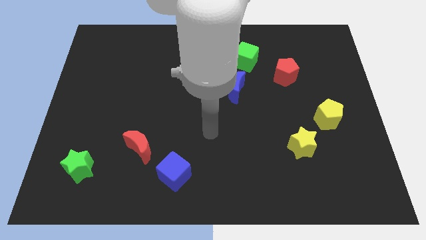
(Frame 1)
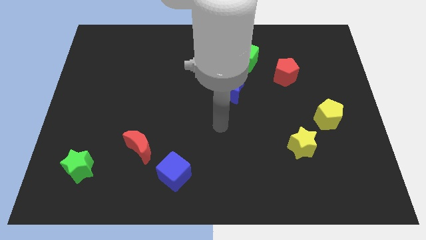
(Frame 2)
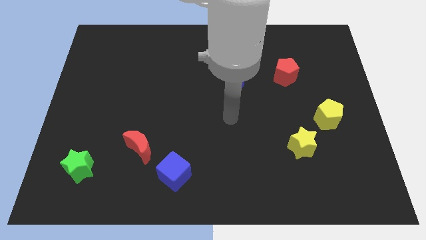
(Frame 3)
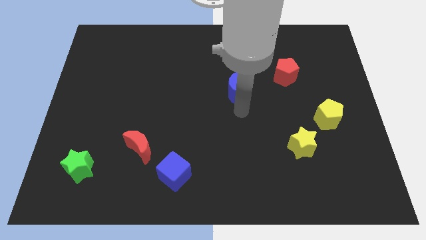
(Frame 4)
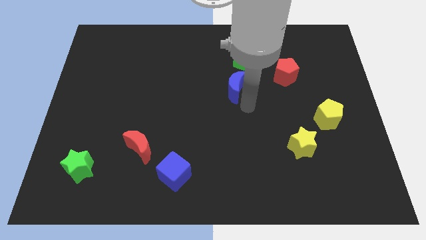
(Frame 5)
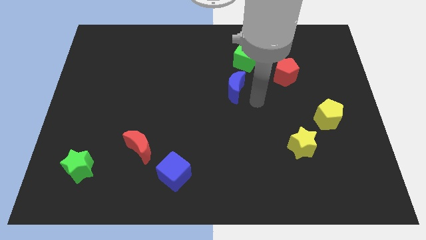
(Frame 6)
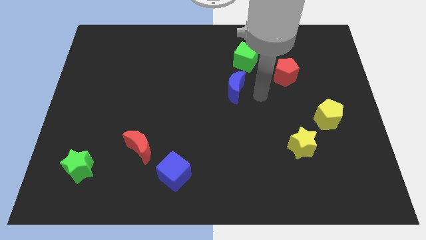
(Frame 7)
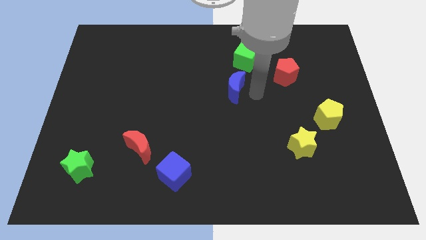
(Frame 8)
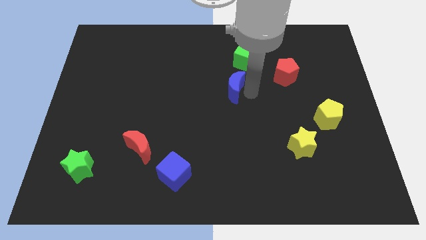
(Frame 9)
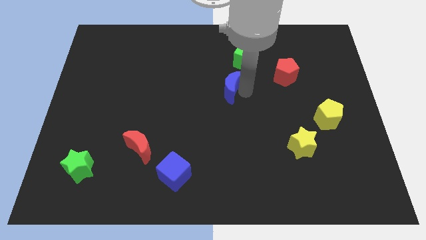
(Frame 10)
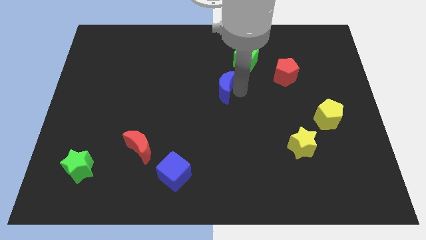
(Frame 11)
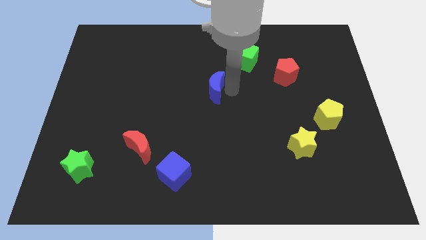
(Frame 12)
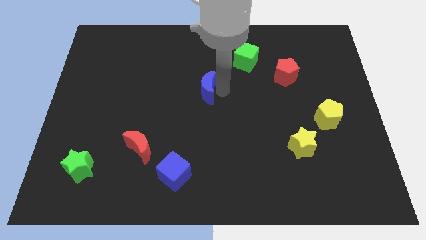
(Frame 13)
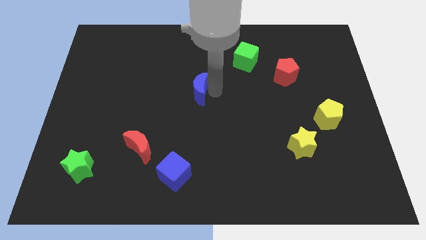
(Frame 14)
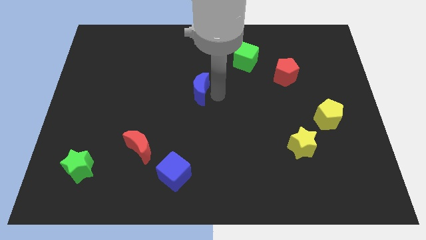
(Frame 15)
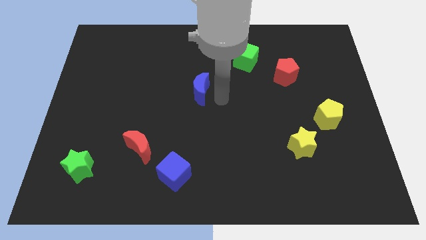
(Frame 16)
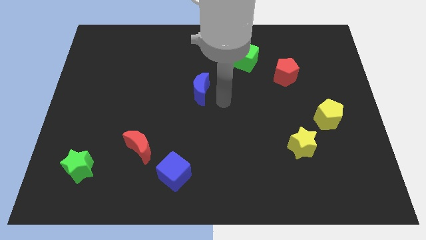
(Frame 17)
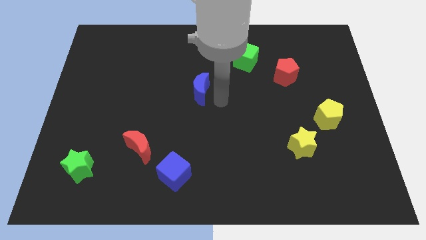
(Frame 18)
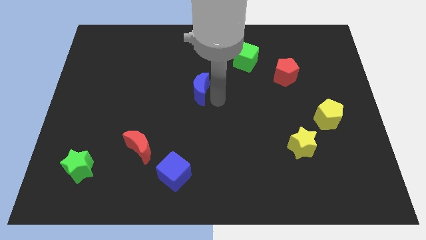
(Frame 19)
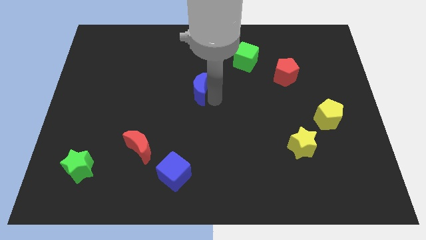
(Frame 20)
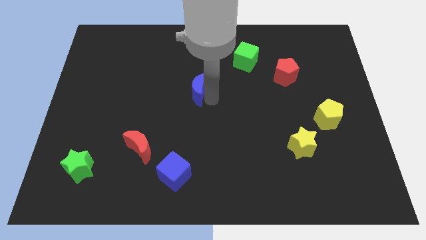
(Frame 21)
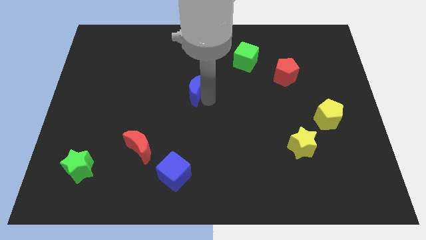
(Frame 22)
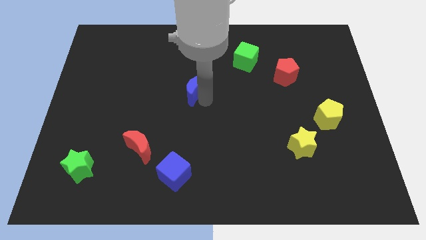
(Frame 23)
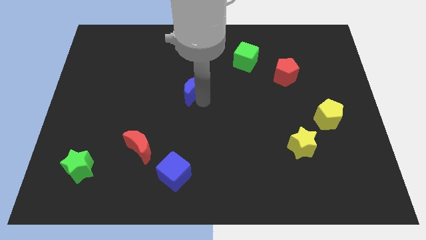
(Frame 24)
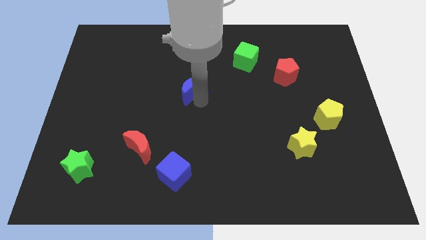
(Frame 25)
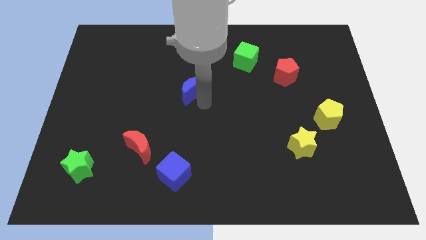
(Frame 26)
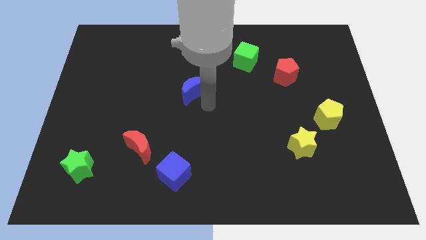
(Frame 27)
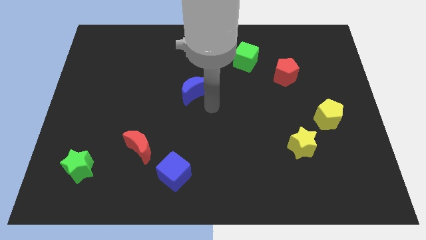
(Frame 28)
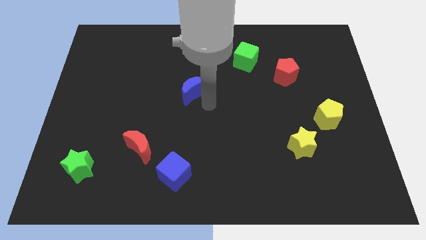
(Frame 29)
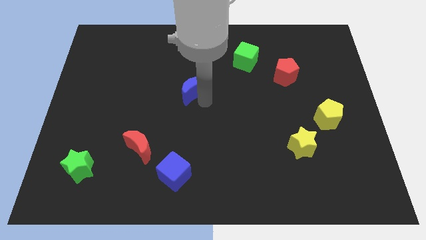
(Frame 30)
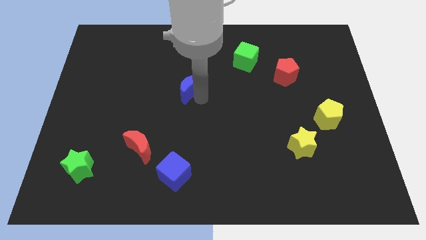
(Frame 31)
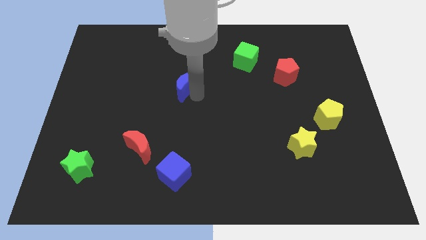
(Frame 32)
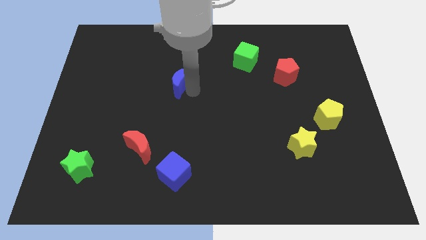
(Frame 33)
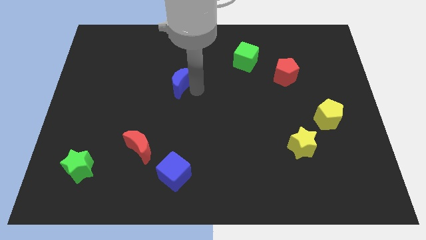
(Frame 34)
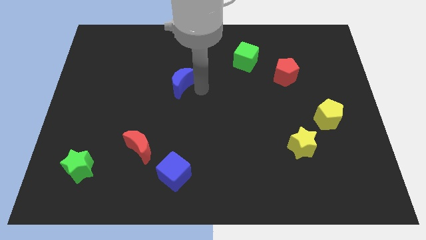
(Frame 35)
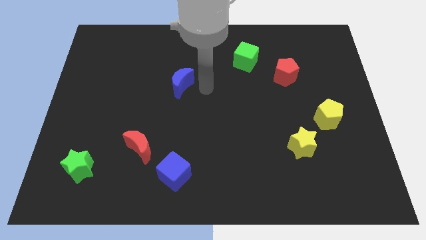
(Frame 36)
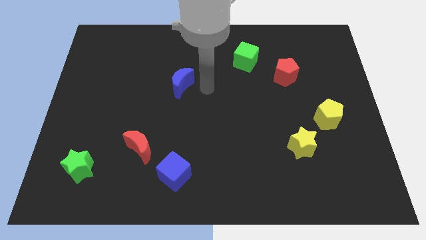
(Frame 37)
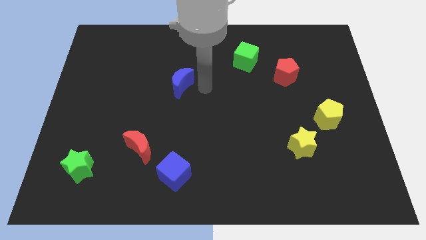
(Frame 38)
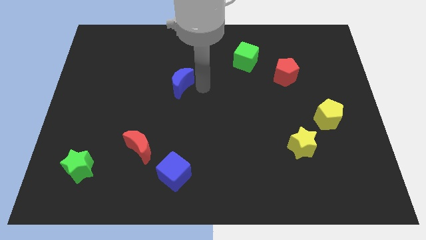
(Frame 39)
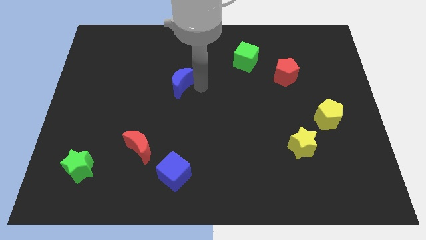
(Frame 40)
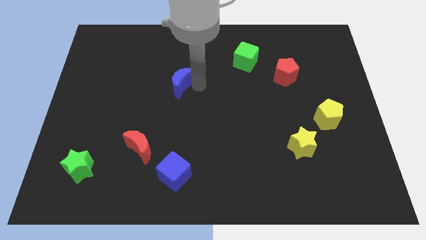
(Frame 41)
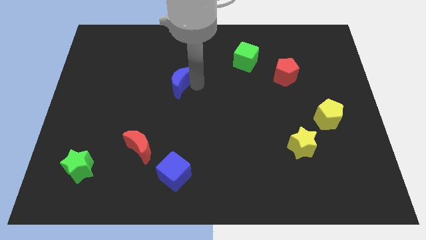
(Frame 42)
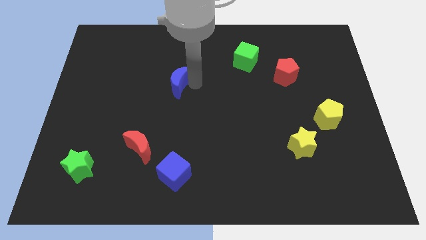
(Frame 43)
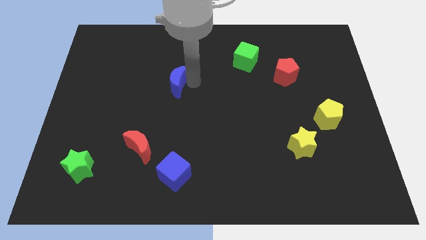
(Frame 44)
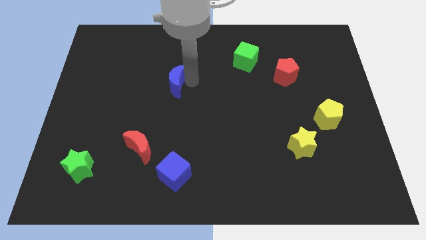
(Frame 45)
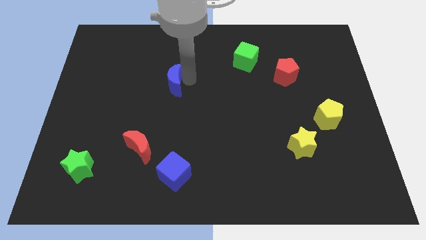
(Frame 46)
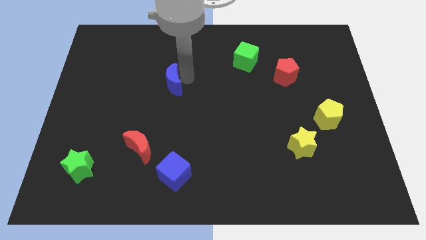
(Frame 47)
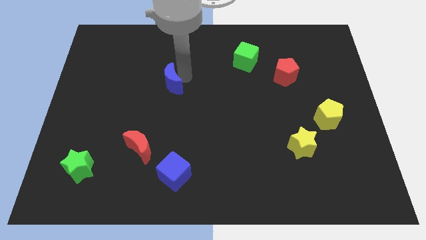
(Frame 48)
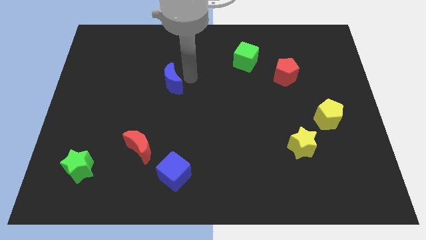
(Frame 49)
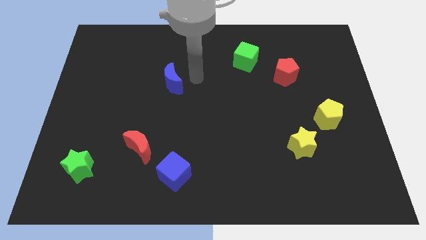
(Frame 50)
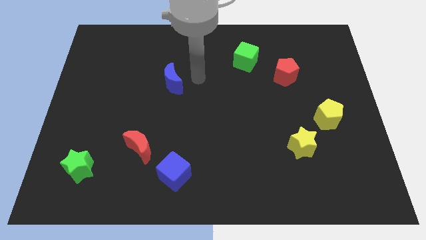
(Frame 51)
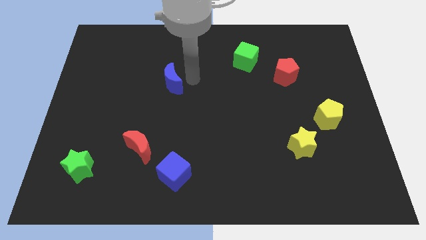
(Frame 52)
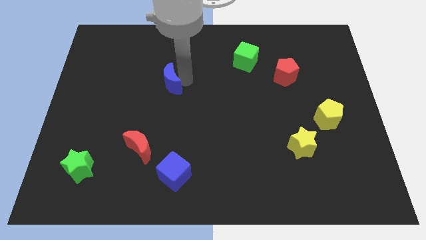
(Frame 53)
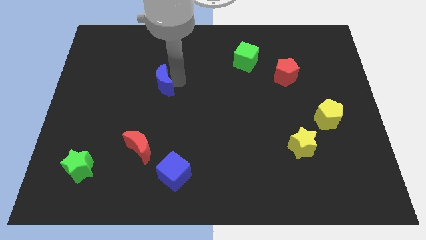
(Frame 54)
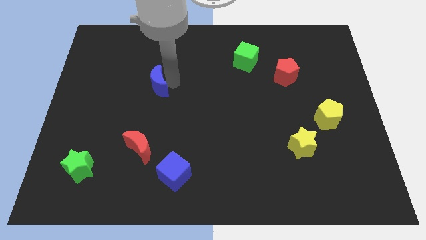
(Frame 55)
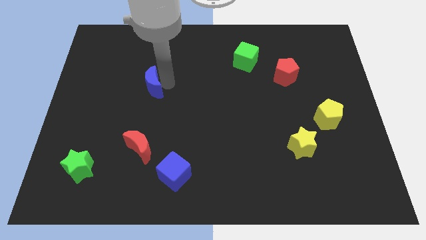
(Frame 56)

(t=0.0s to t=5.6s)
push the blue moon left

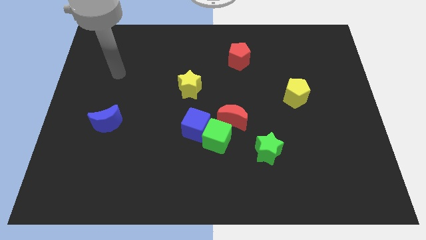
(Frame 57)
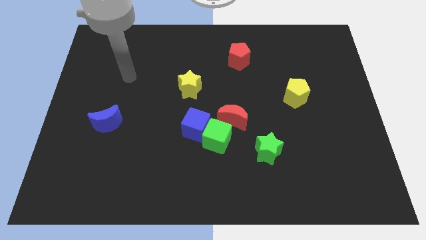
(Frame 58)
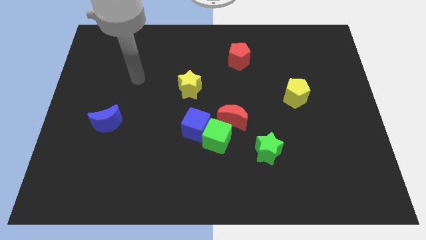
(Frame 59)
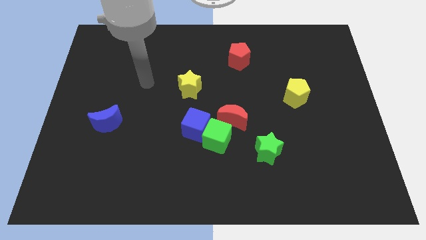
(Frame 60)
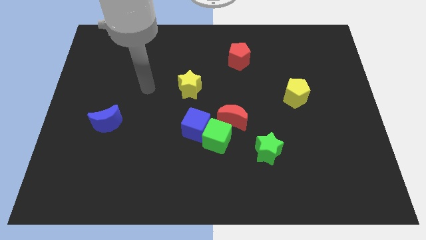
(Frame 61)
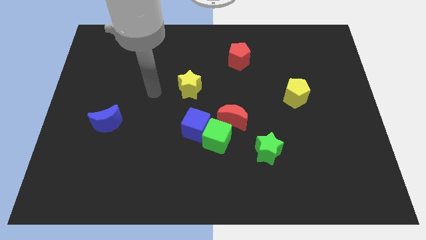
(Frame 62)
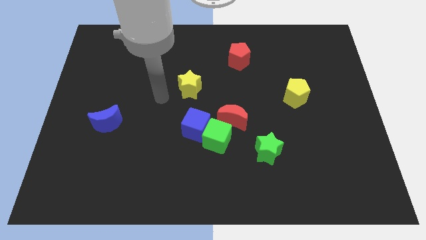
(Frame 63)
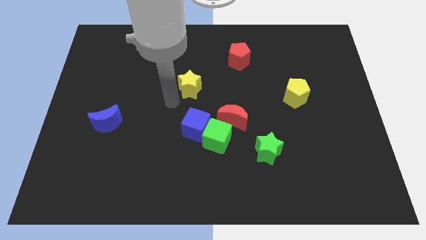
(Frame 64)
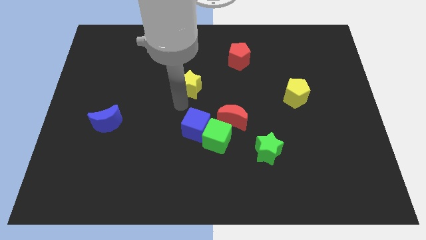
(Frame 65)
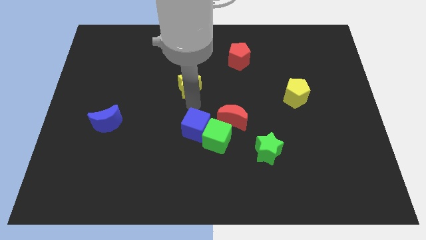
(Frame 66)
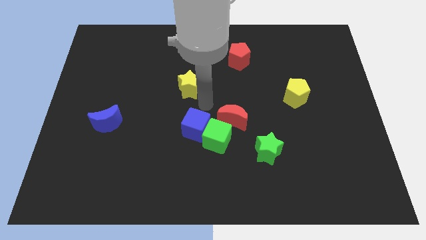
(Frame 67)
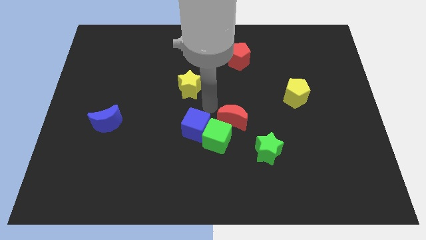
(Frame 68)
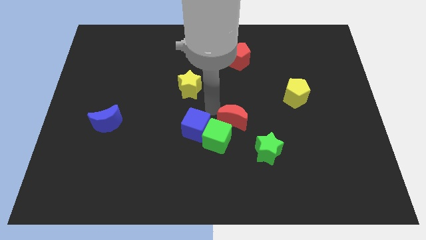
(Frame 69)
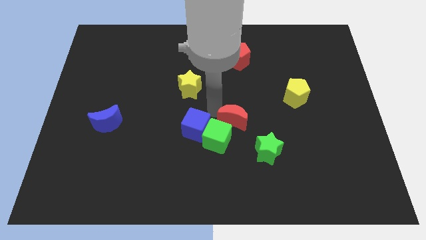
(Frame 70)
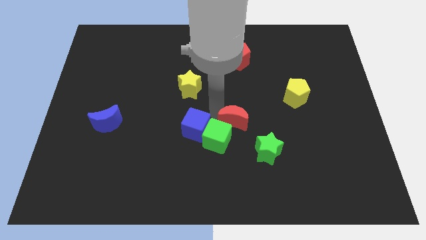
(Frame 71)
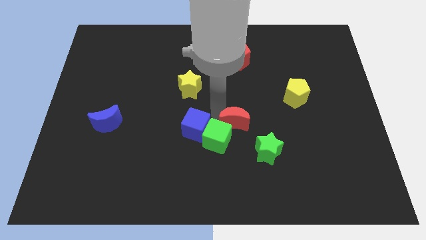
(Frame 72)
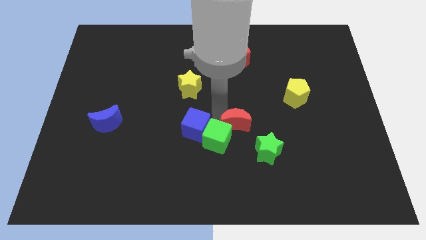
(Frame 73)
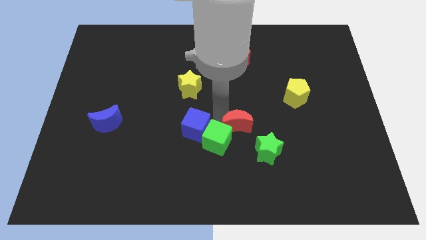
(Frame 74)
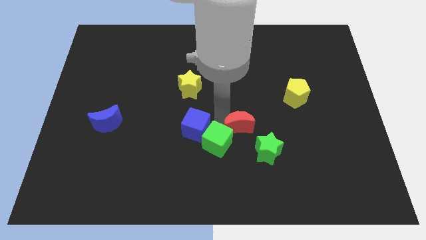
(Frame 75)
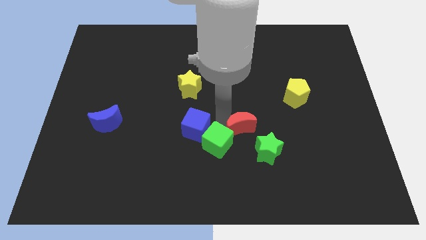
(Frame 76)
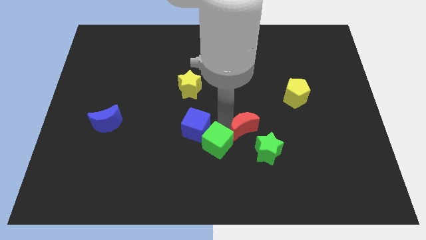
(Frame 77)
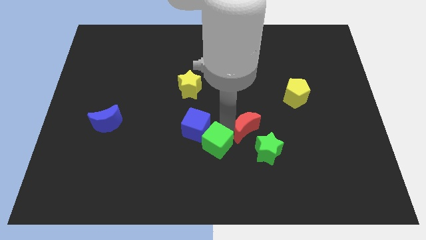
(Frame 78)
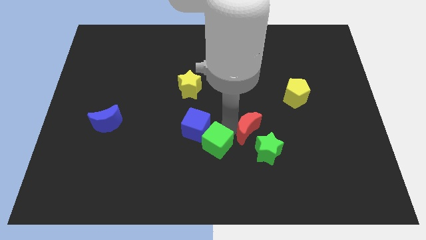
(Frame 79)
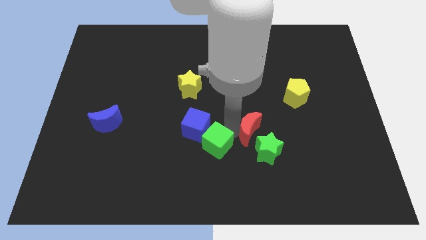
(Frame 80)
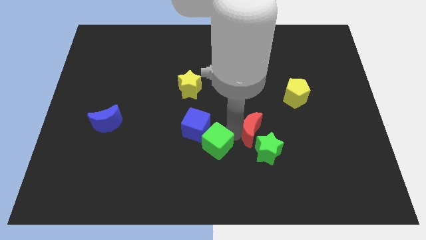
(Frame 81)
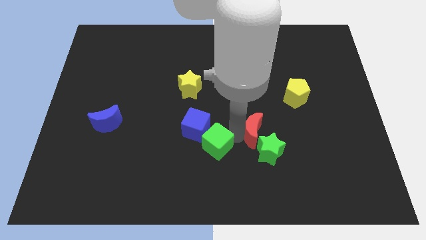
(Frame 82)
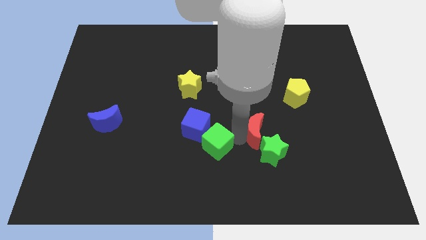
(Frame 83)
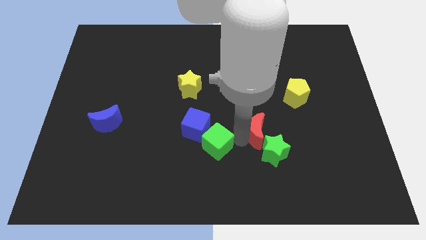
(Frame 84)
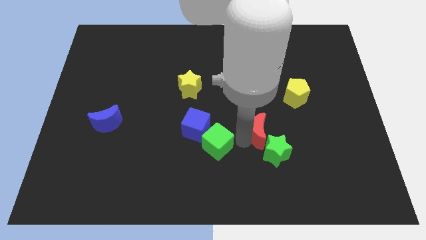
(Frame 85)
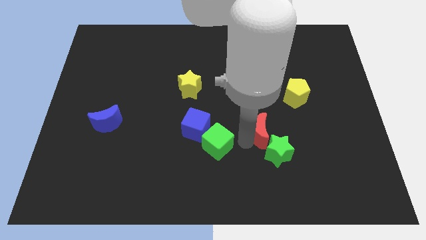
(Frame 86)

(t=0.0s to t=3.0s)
move the red moon downwards and then right slightly
